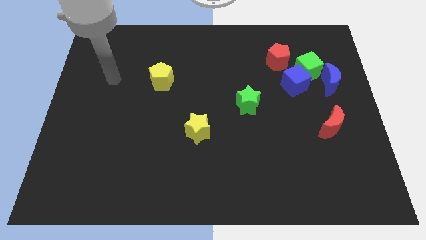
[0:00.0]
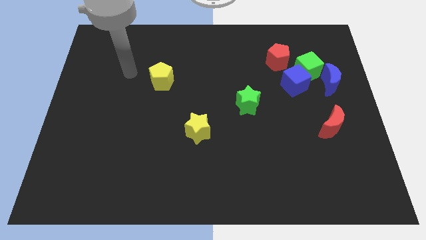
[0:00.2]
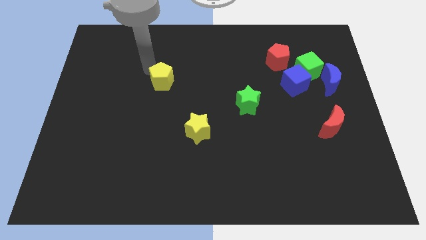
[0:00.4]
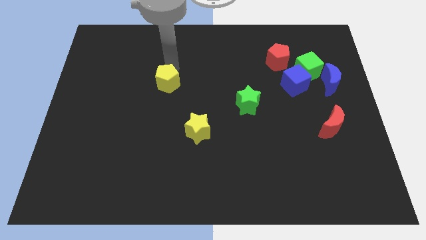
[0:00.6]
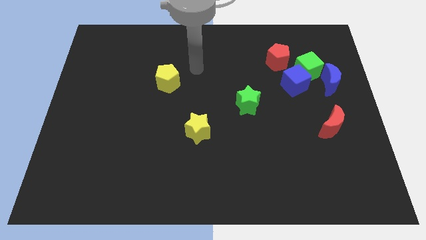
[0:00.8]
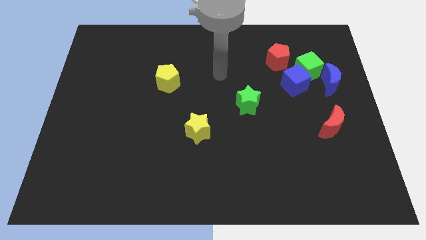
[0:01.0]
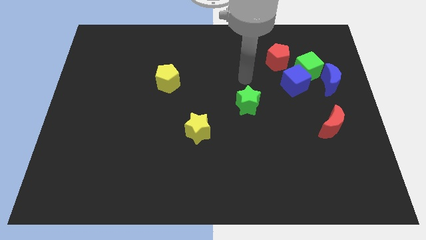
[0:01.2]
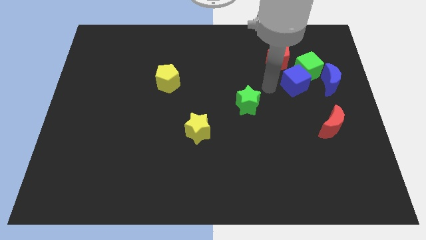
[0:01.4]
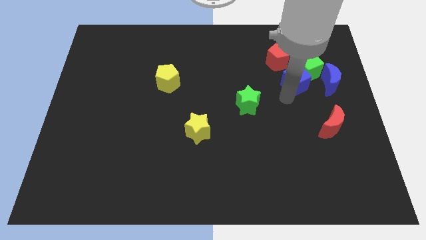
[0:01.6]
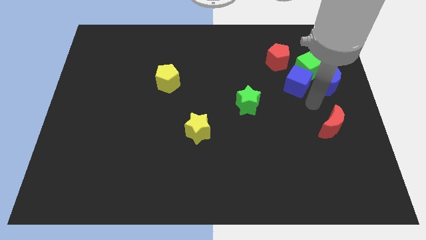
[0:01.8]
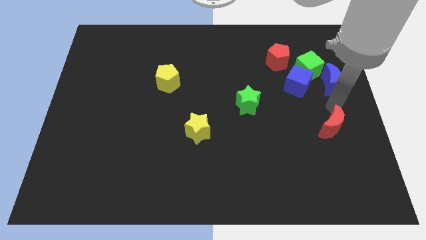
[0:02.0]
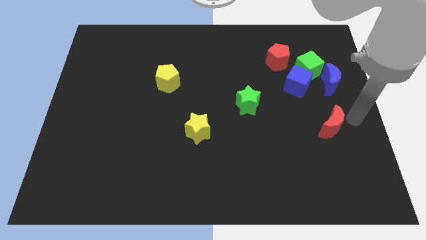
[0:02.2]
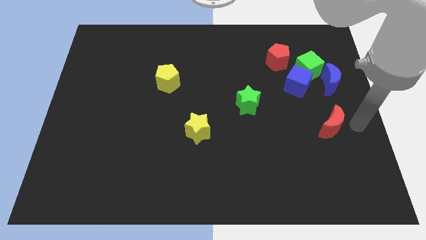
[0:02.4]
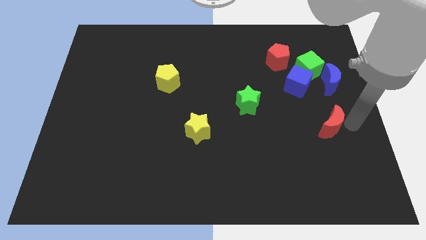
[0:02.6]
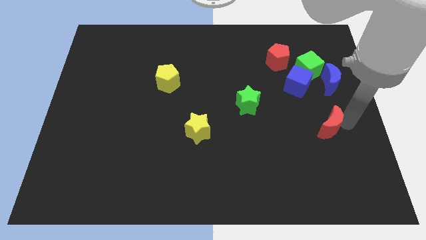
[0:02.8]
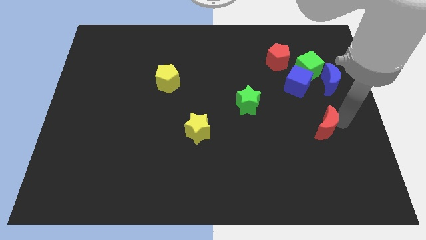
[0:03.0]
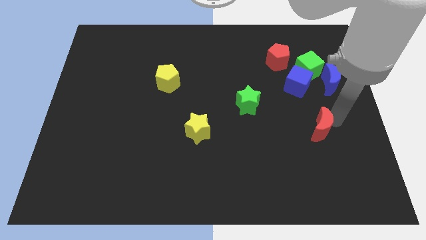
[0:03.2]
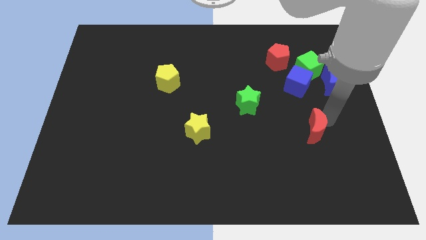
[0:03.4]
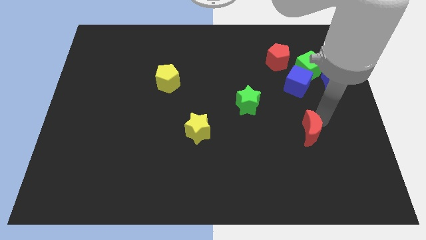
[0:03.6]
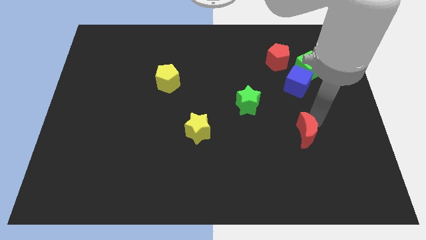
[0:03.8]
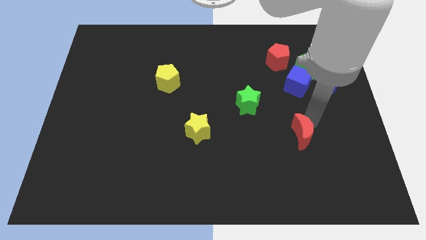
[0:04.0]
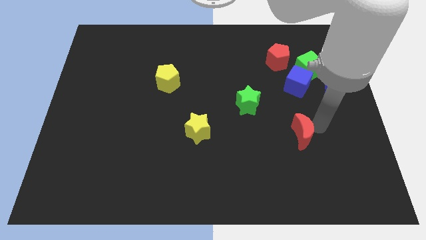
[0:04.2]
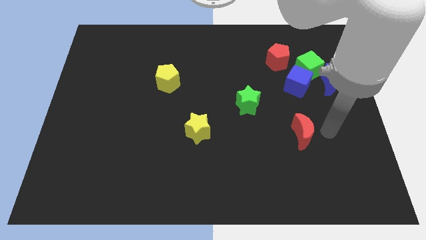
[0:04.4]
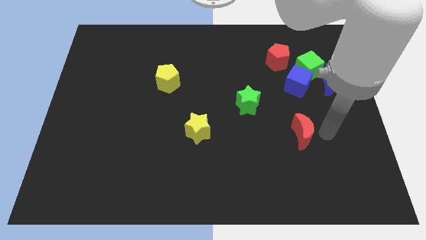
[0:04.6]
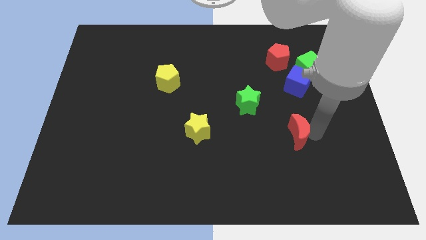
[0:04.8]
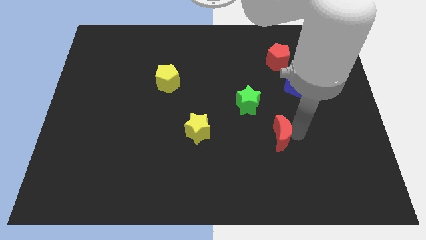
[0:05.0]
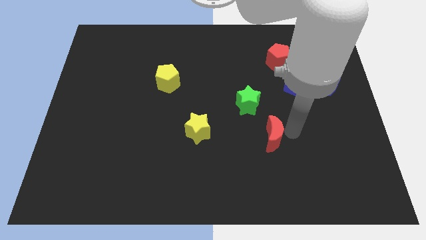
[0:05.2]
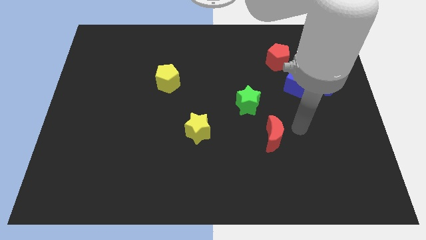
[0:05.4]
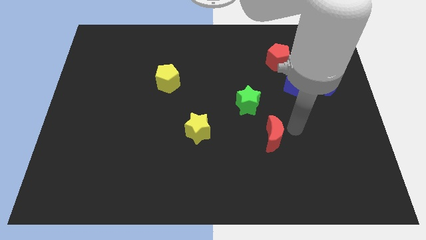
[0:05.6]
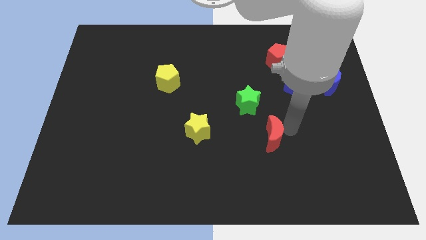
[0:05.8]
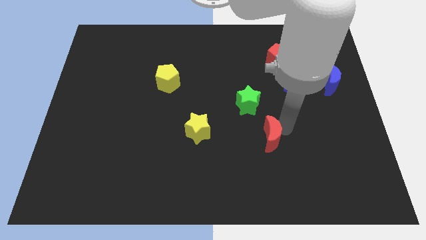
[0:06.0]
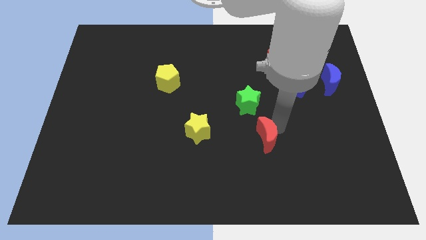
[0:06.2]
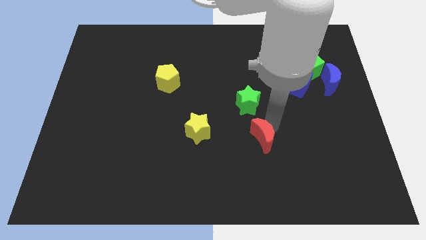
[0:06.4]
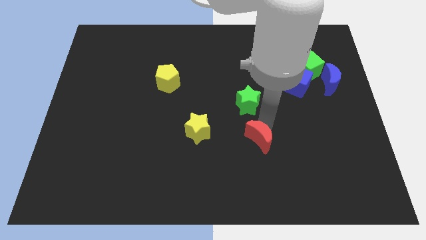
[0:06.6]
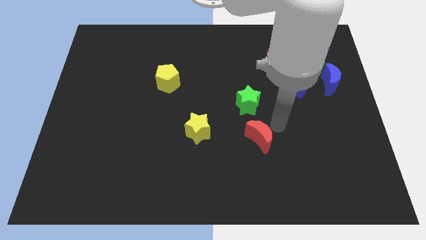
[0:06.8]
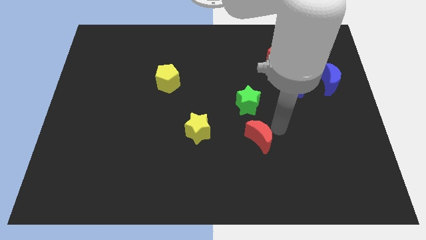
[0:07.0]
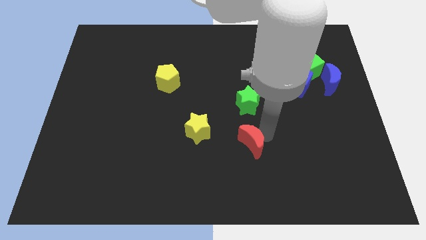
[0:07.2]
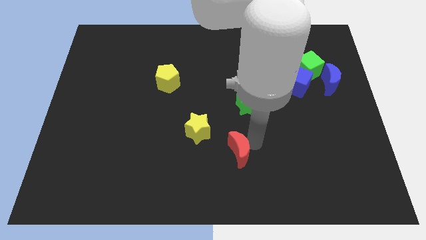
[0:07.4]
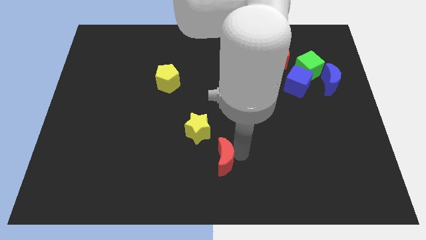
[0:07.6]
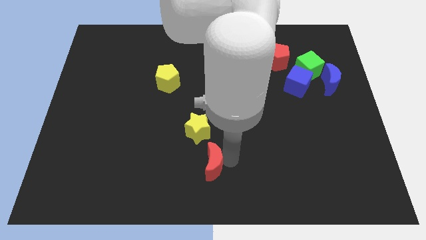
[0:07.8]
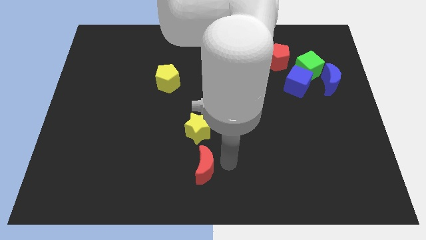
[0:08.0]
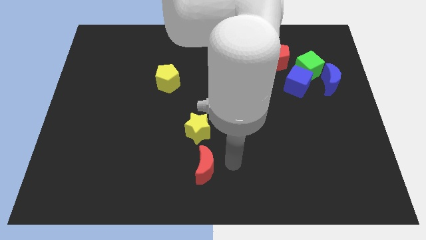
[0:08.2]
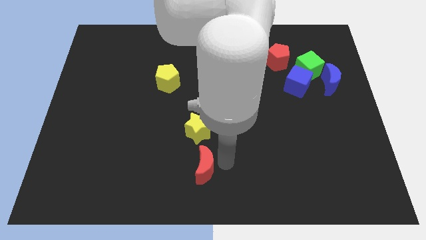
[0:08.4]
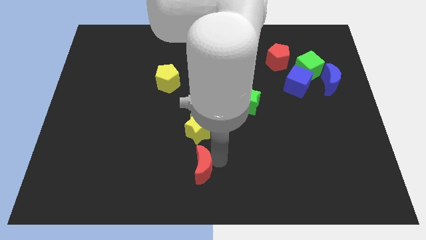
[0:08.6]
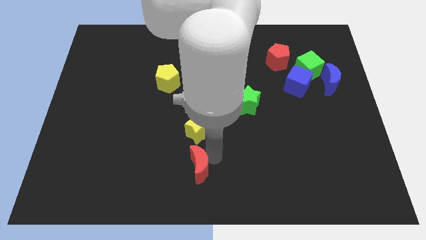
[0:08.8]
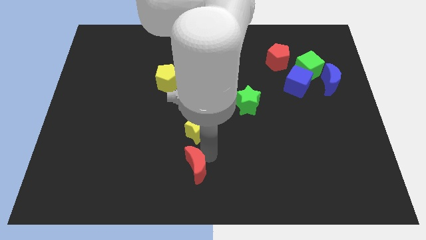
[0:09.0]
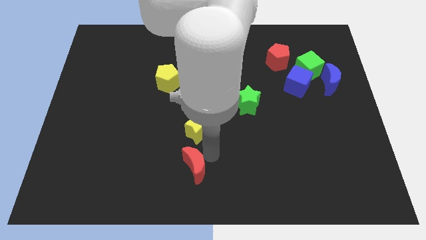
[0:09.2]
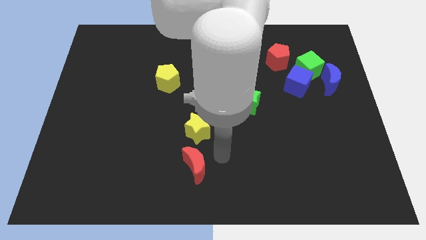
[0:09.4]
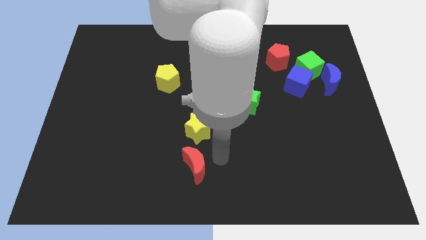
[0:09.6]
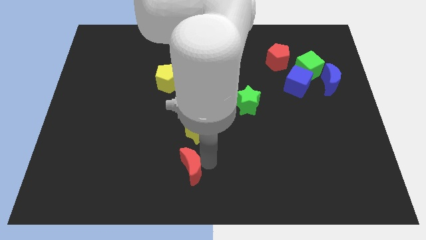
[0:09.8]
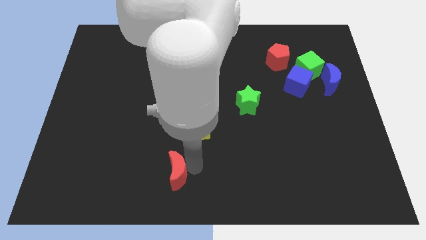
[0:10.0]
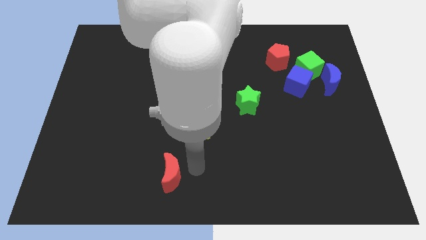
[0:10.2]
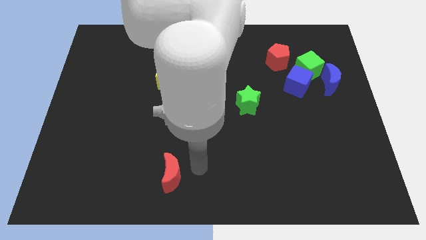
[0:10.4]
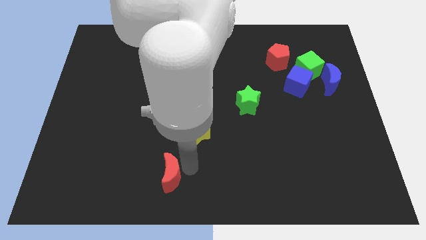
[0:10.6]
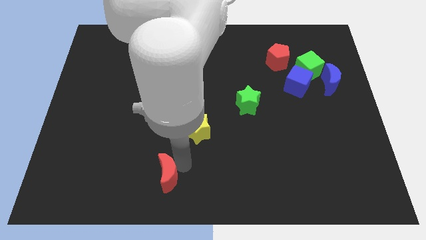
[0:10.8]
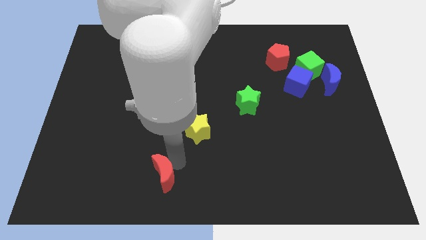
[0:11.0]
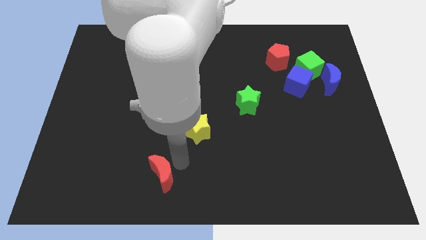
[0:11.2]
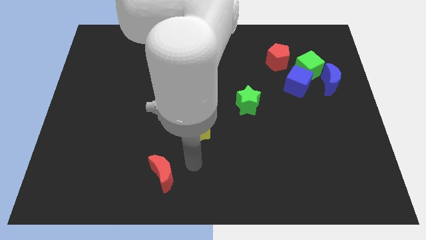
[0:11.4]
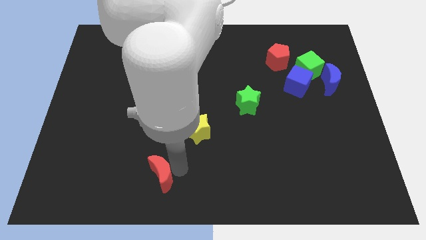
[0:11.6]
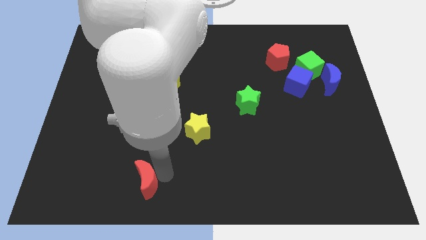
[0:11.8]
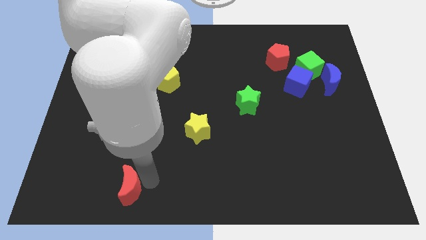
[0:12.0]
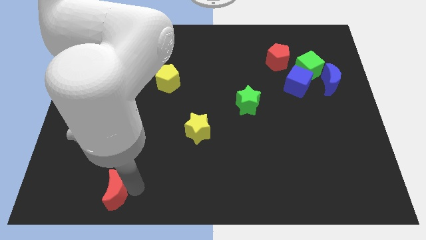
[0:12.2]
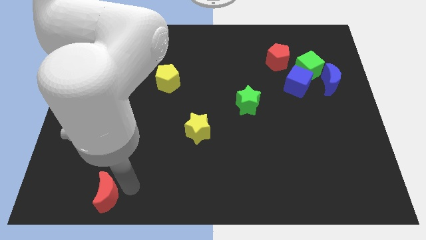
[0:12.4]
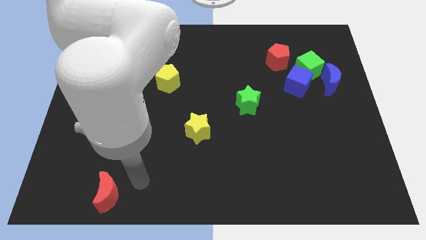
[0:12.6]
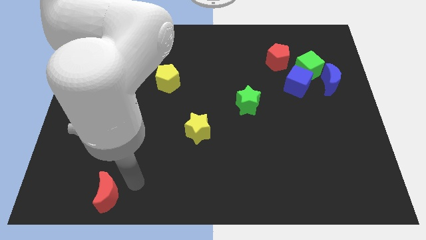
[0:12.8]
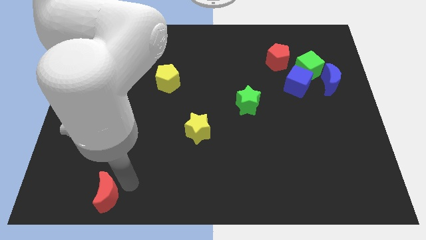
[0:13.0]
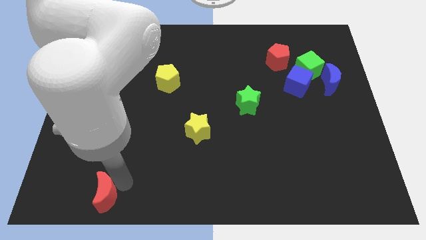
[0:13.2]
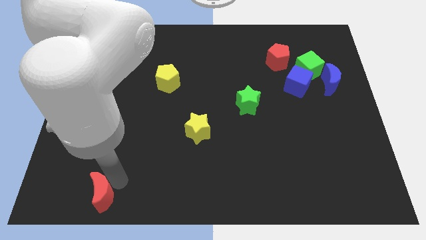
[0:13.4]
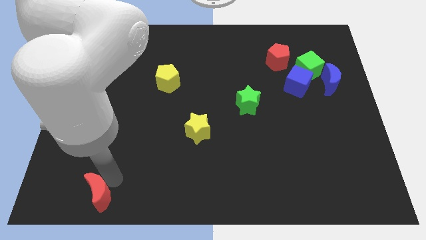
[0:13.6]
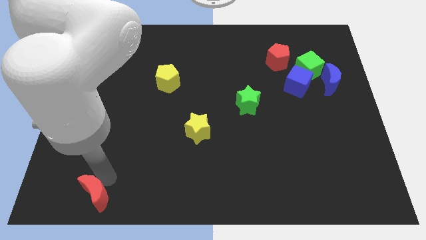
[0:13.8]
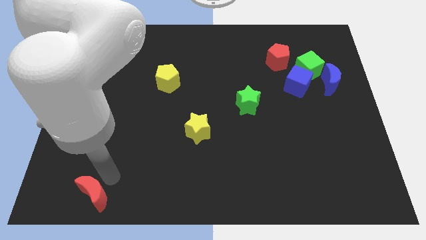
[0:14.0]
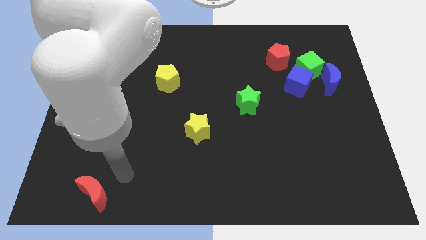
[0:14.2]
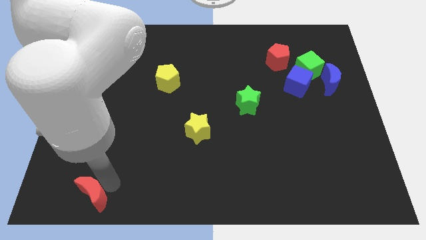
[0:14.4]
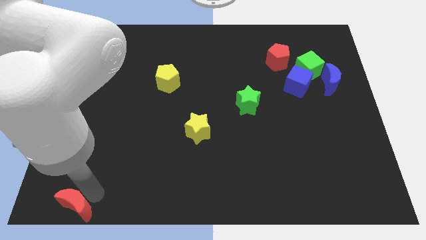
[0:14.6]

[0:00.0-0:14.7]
move the red moon to the bottom left corner
